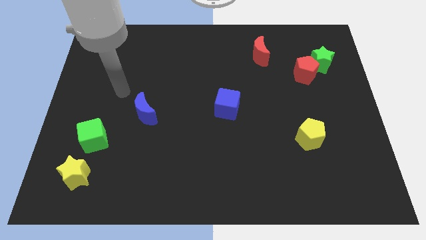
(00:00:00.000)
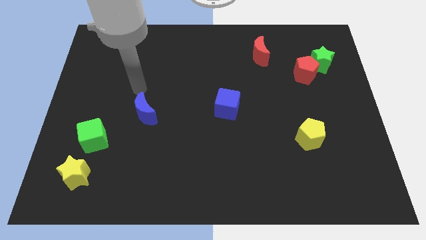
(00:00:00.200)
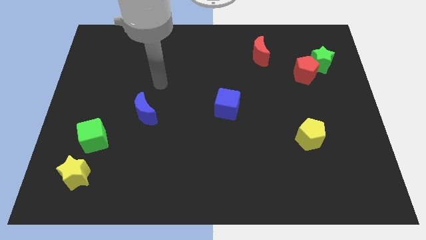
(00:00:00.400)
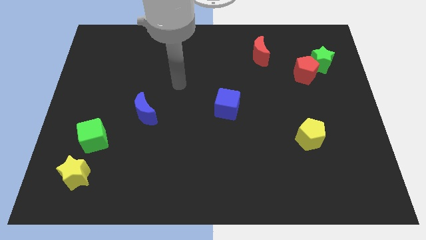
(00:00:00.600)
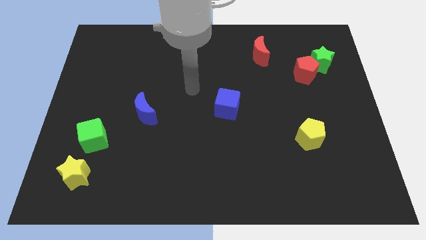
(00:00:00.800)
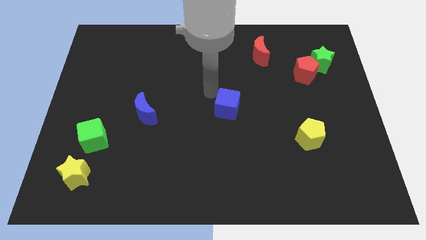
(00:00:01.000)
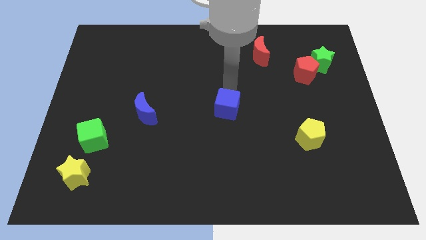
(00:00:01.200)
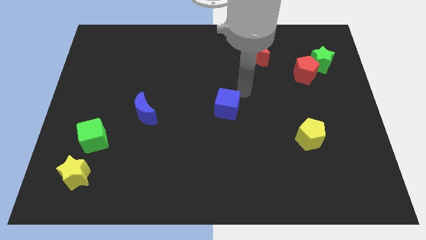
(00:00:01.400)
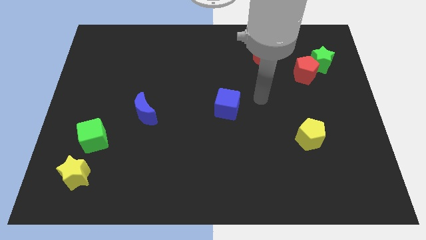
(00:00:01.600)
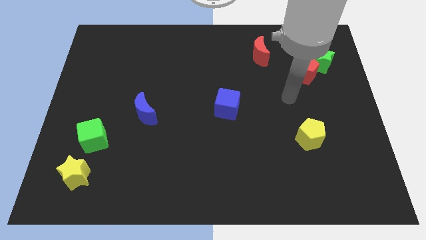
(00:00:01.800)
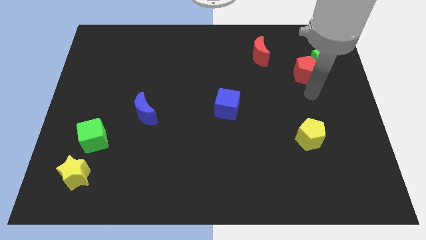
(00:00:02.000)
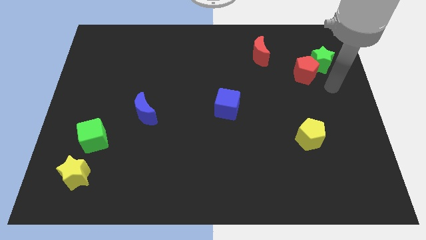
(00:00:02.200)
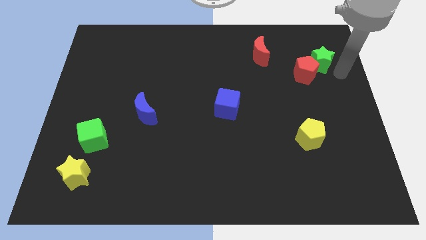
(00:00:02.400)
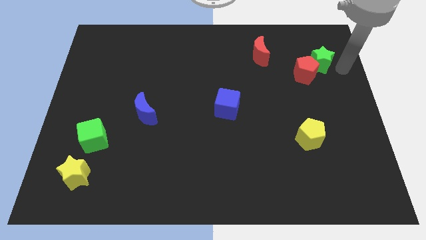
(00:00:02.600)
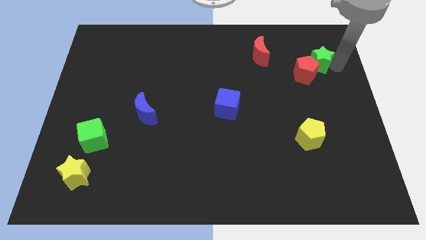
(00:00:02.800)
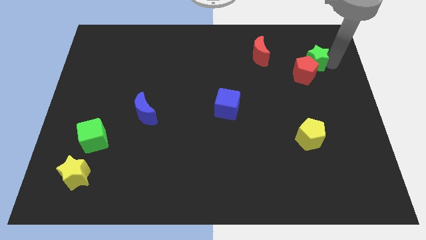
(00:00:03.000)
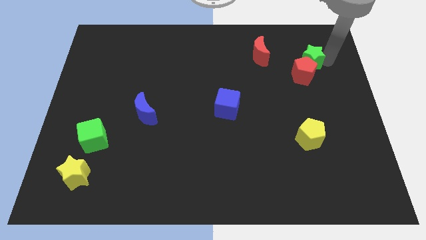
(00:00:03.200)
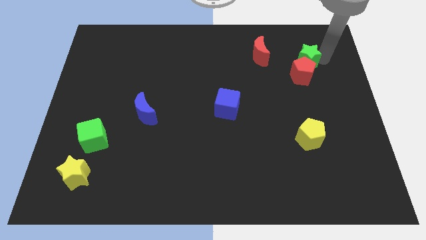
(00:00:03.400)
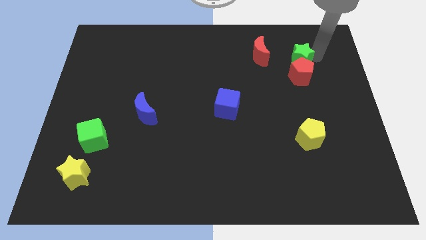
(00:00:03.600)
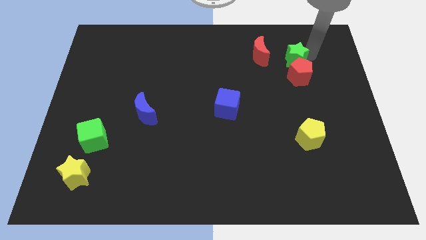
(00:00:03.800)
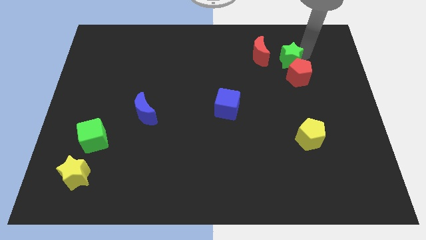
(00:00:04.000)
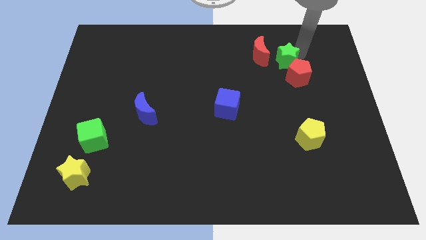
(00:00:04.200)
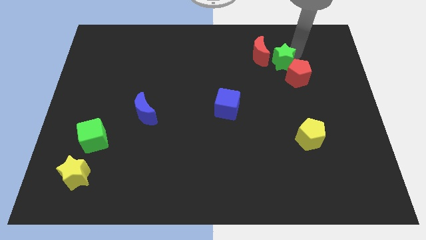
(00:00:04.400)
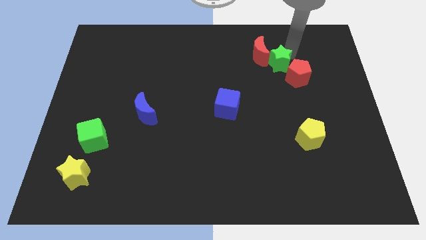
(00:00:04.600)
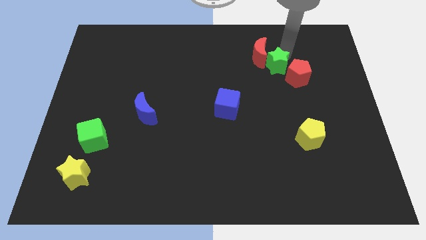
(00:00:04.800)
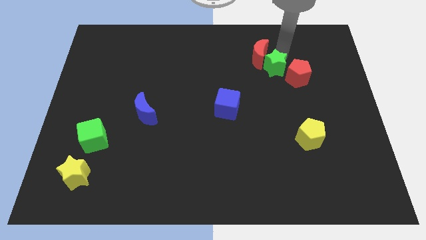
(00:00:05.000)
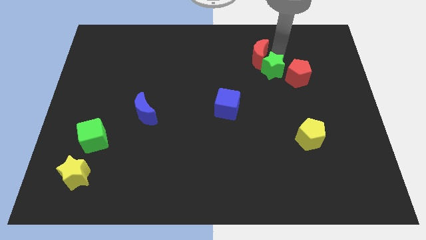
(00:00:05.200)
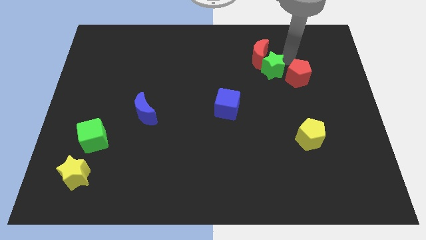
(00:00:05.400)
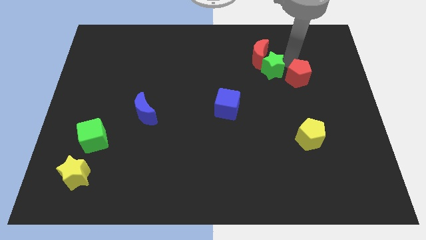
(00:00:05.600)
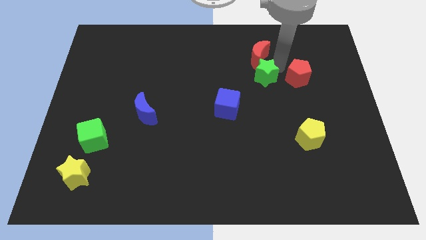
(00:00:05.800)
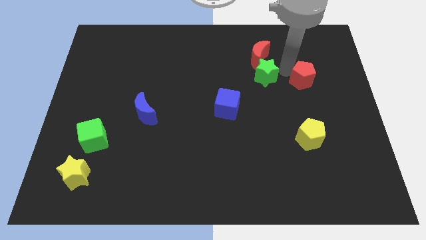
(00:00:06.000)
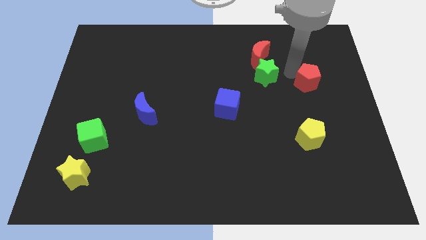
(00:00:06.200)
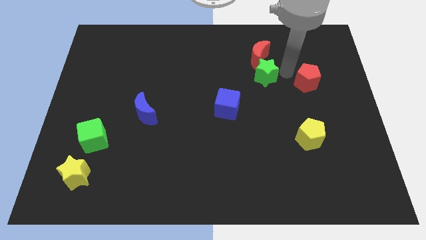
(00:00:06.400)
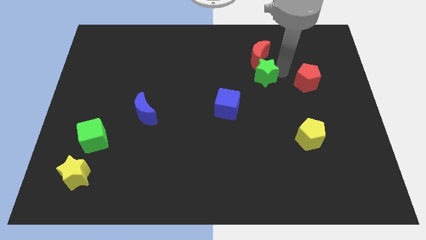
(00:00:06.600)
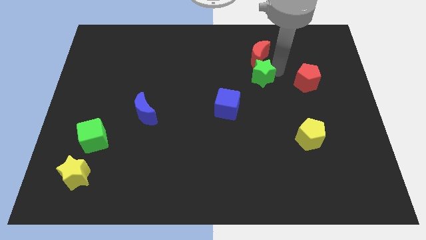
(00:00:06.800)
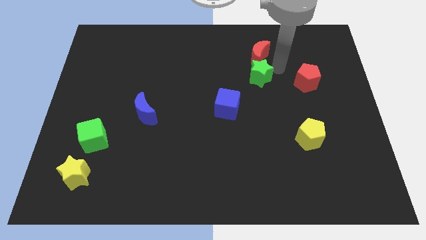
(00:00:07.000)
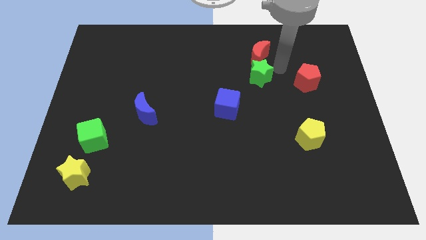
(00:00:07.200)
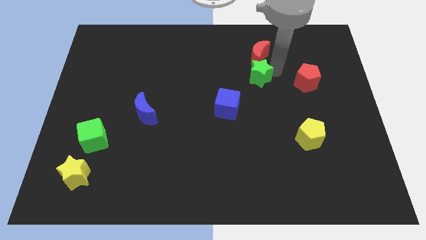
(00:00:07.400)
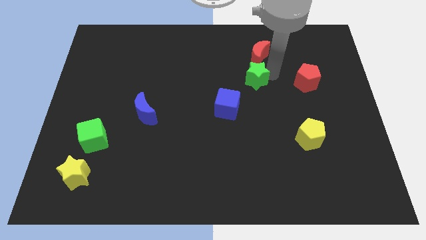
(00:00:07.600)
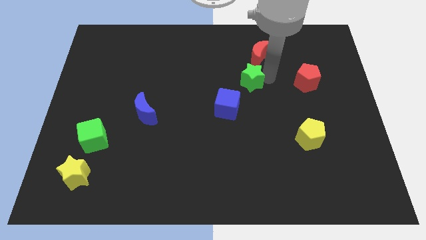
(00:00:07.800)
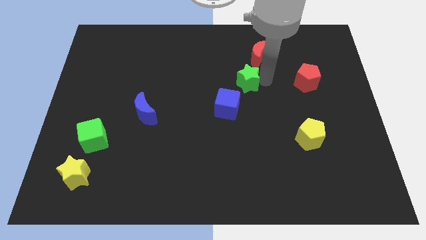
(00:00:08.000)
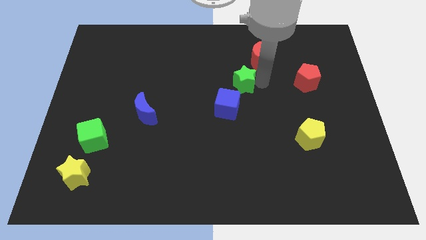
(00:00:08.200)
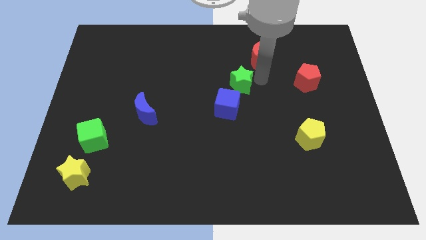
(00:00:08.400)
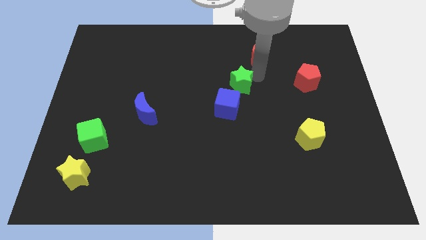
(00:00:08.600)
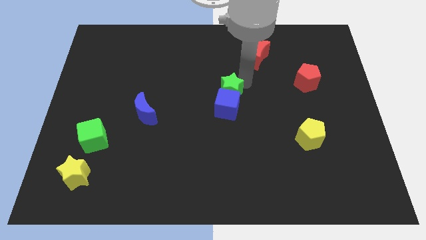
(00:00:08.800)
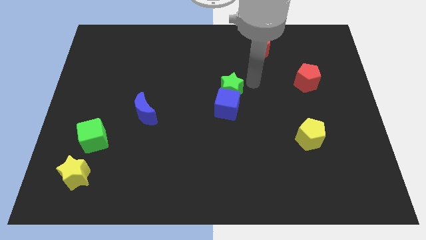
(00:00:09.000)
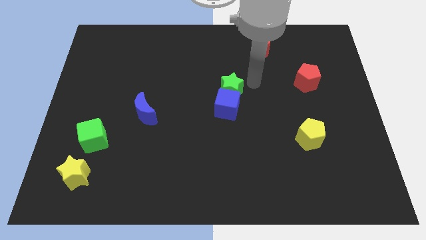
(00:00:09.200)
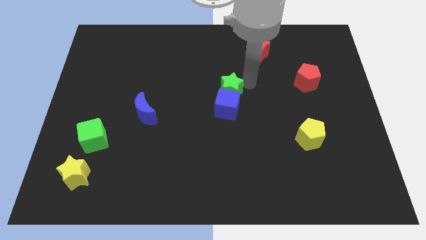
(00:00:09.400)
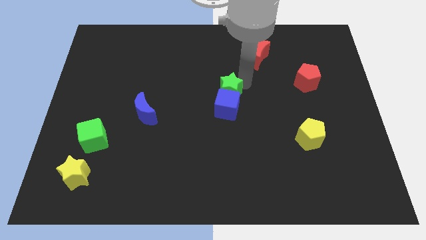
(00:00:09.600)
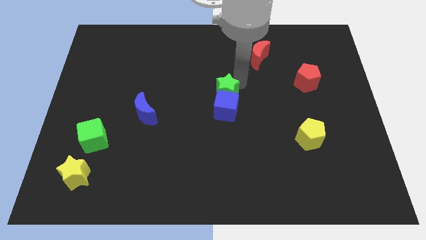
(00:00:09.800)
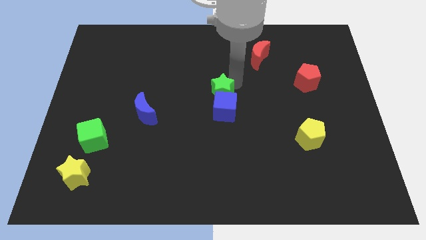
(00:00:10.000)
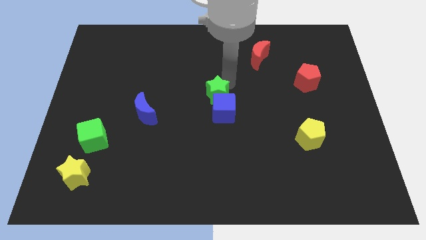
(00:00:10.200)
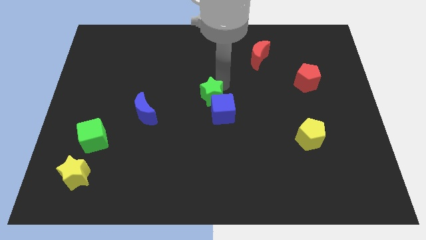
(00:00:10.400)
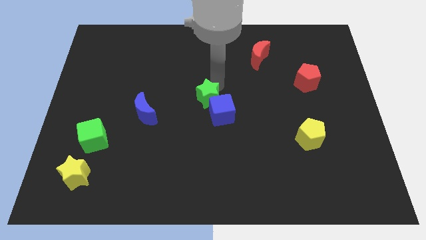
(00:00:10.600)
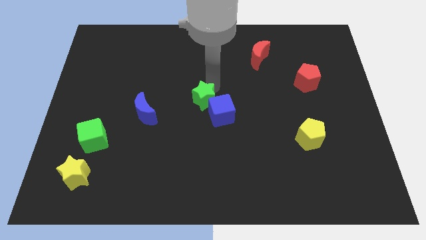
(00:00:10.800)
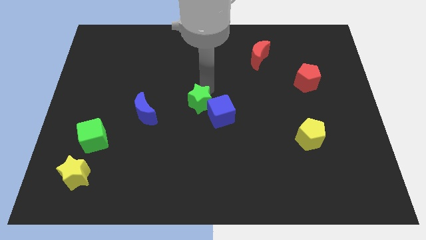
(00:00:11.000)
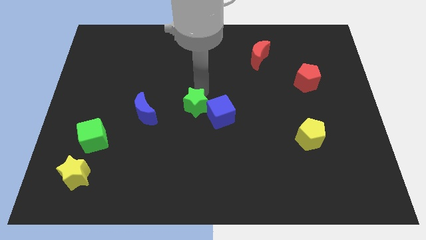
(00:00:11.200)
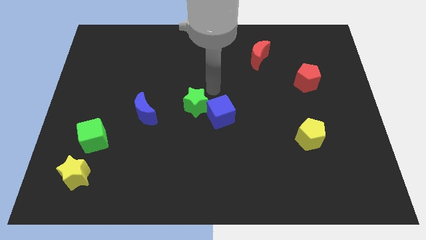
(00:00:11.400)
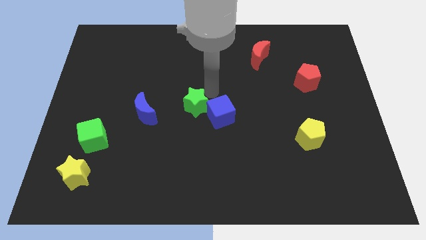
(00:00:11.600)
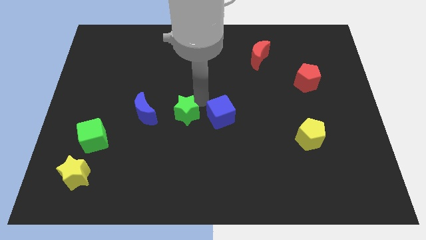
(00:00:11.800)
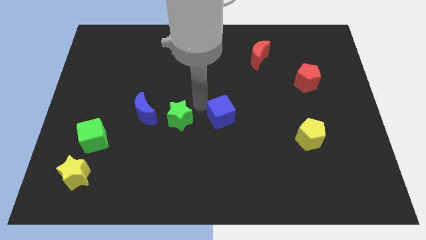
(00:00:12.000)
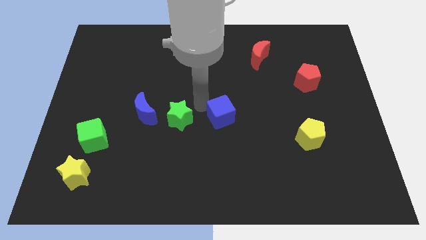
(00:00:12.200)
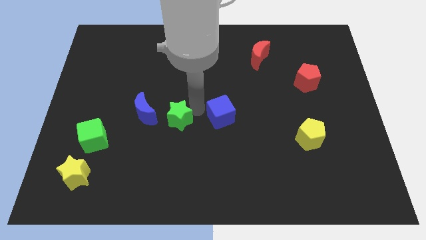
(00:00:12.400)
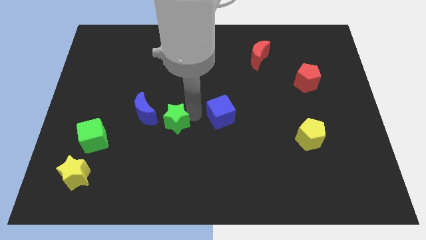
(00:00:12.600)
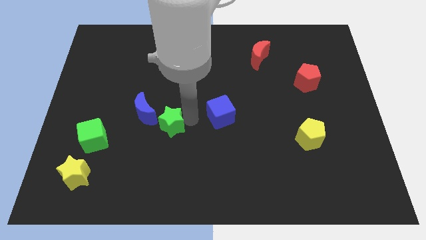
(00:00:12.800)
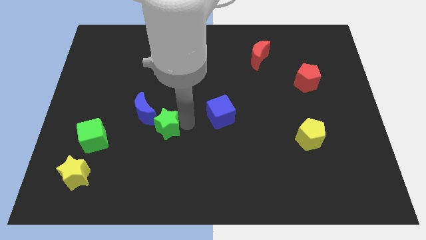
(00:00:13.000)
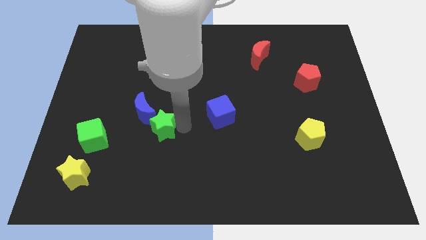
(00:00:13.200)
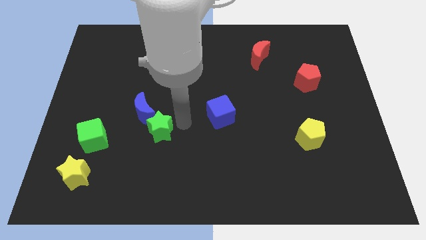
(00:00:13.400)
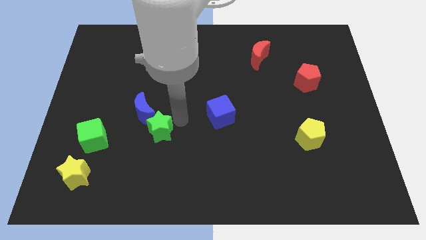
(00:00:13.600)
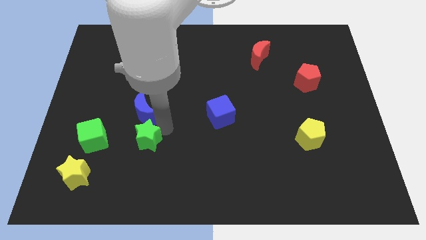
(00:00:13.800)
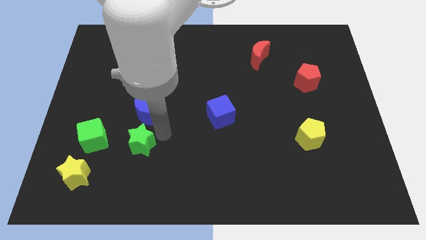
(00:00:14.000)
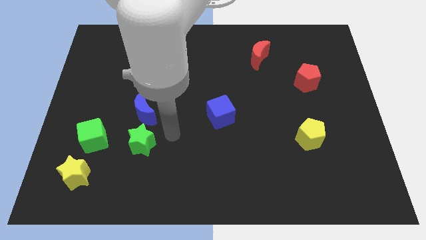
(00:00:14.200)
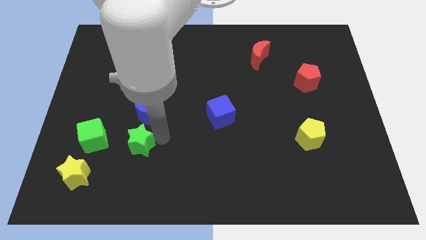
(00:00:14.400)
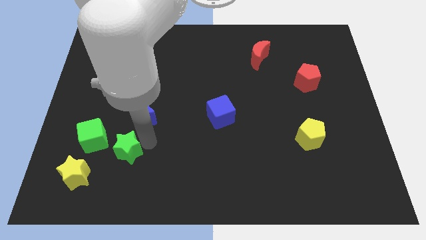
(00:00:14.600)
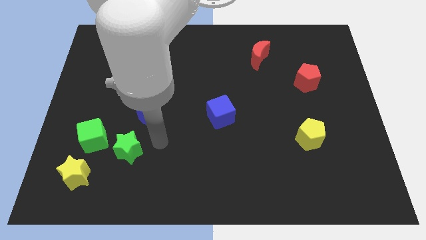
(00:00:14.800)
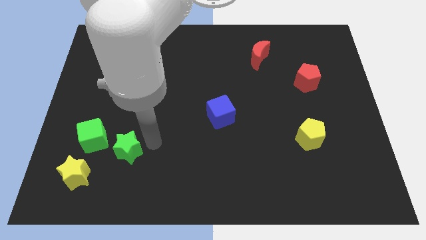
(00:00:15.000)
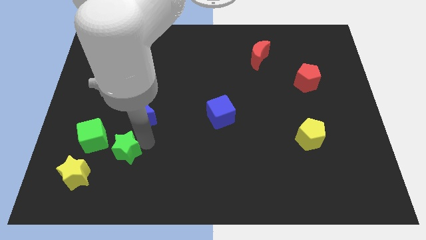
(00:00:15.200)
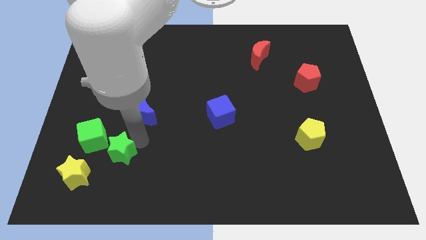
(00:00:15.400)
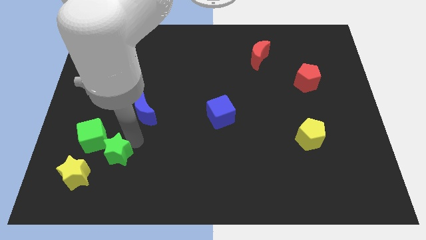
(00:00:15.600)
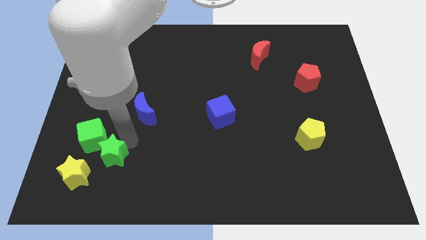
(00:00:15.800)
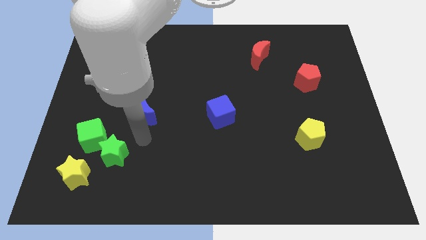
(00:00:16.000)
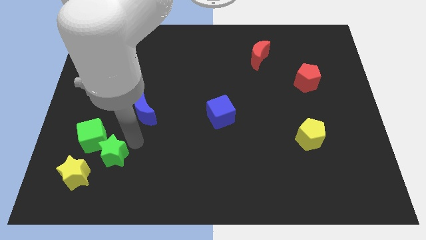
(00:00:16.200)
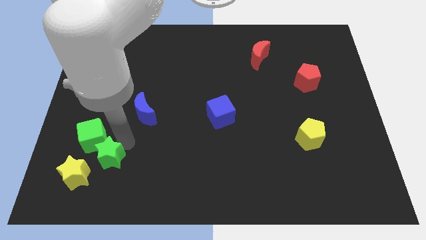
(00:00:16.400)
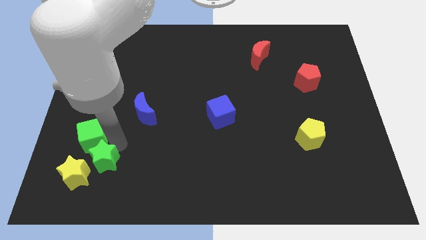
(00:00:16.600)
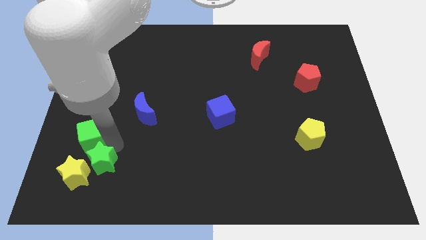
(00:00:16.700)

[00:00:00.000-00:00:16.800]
put the green star close to the yellow star
